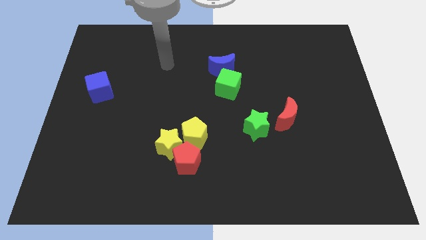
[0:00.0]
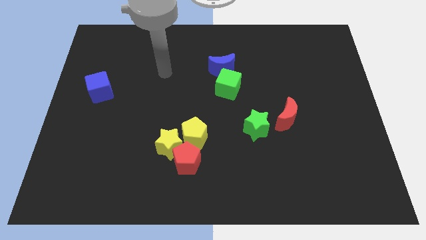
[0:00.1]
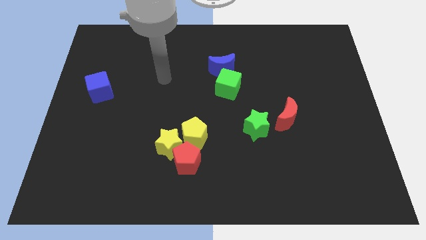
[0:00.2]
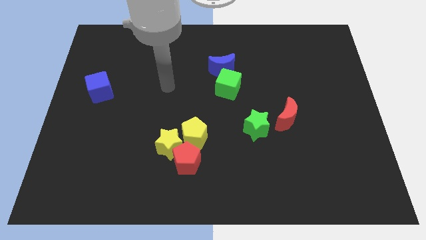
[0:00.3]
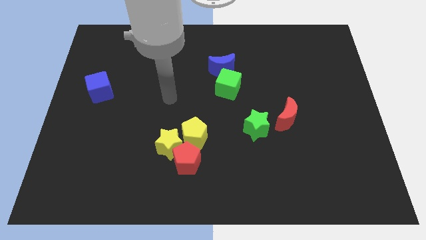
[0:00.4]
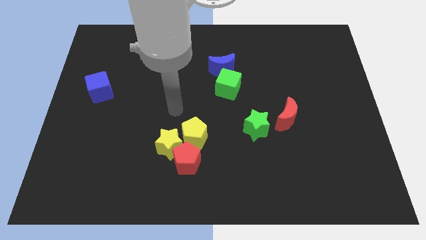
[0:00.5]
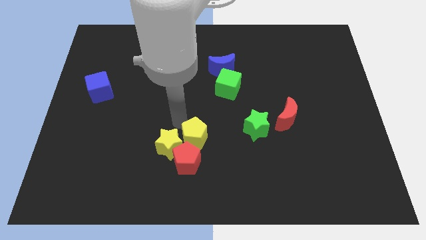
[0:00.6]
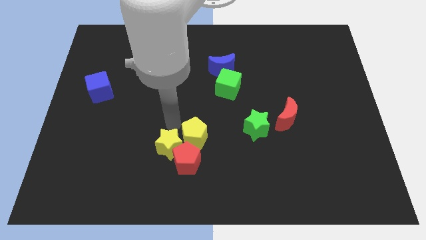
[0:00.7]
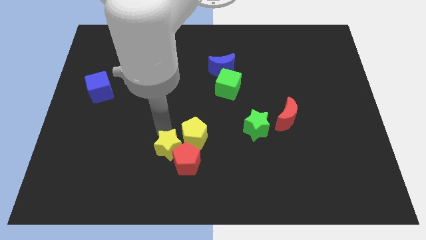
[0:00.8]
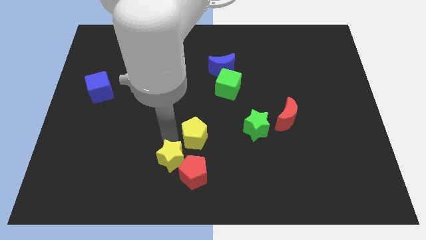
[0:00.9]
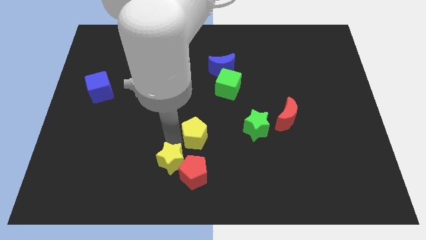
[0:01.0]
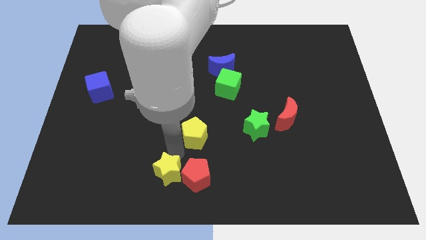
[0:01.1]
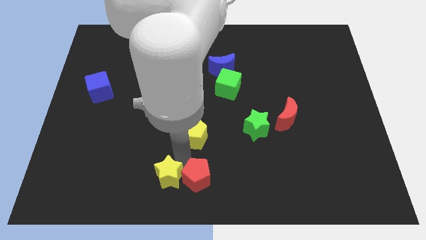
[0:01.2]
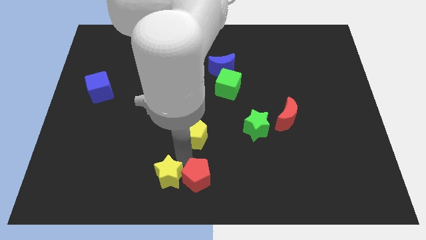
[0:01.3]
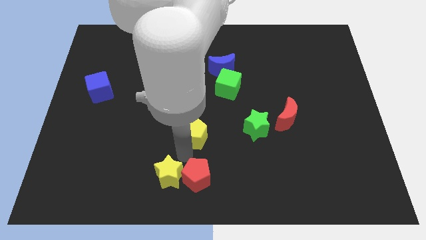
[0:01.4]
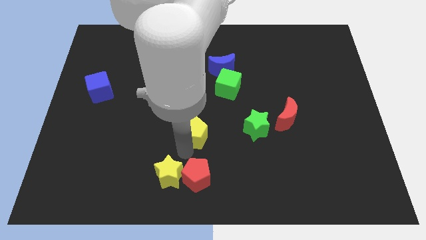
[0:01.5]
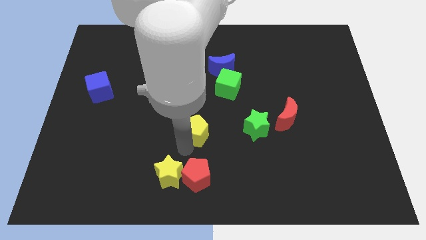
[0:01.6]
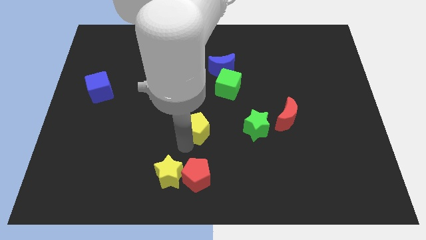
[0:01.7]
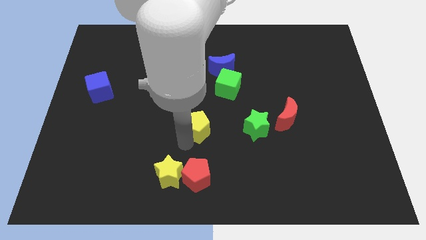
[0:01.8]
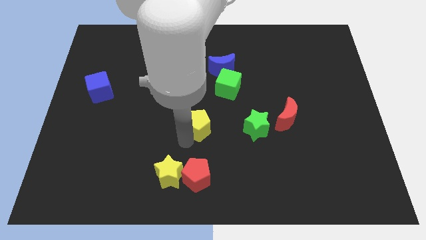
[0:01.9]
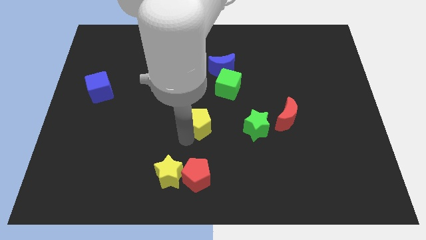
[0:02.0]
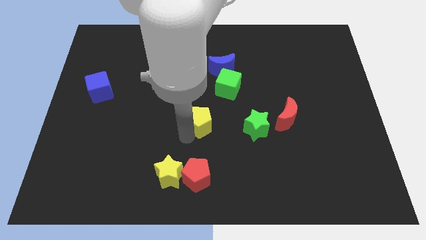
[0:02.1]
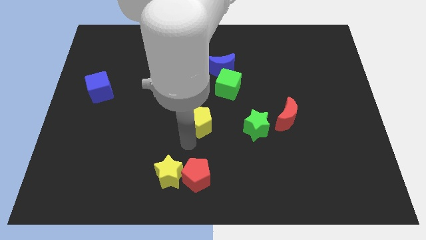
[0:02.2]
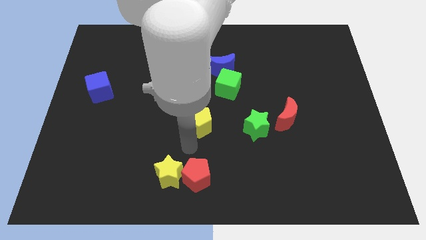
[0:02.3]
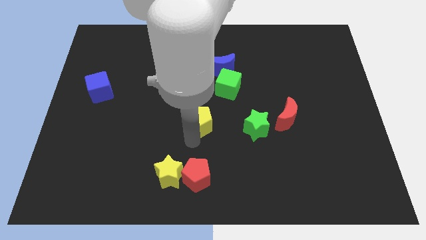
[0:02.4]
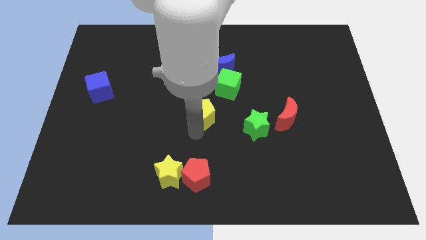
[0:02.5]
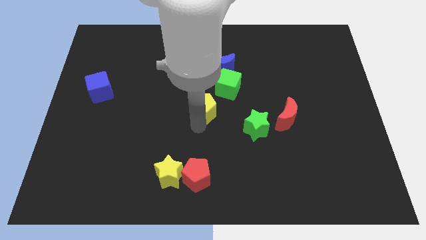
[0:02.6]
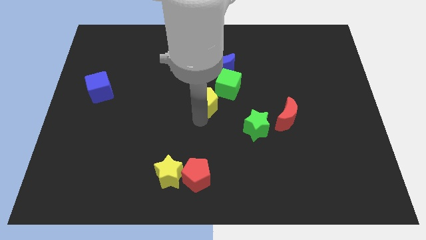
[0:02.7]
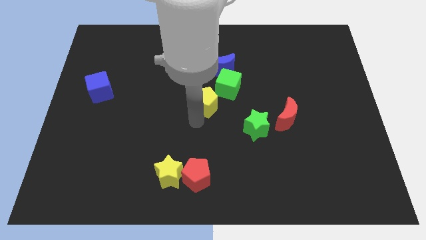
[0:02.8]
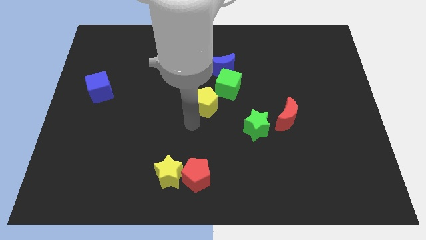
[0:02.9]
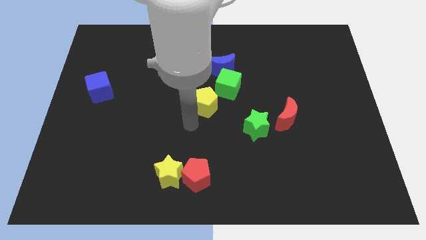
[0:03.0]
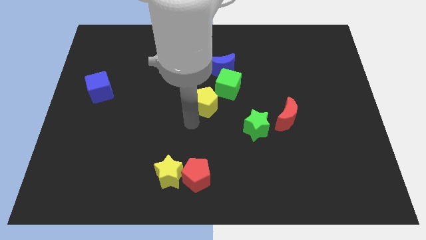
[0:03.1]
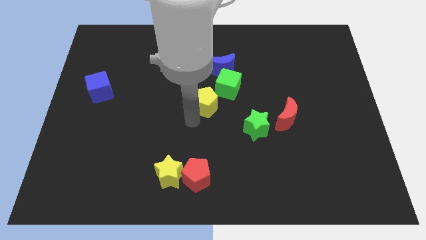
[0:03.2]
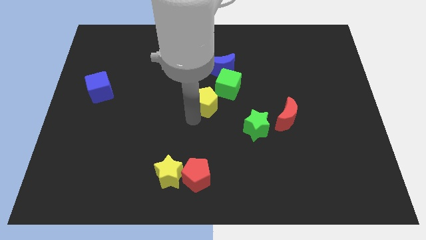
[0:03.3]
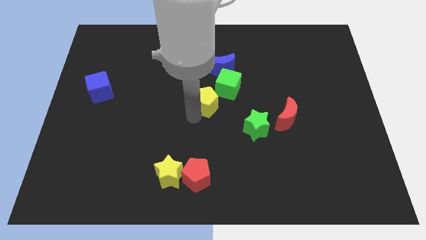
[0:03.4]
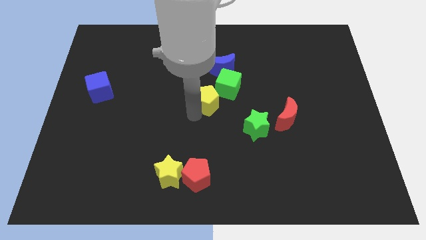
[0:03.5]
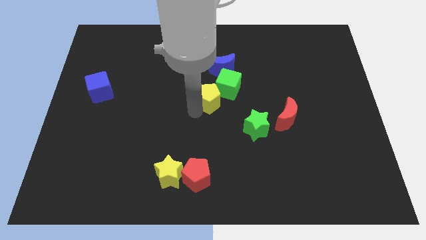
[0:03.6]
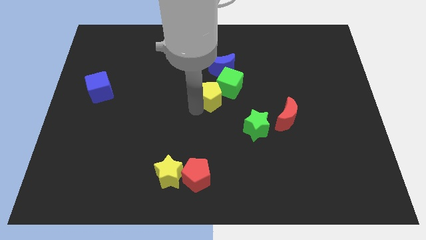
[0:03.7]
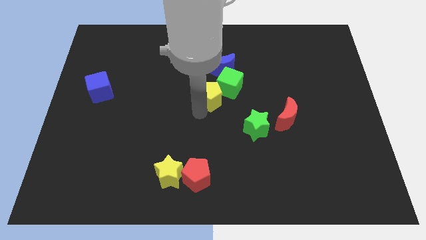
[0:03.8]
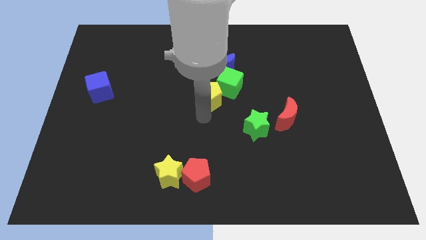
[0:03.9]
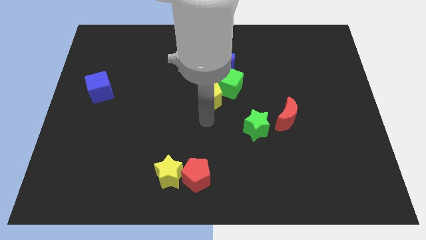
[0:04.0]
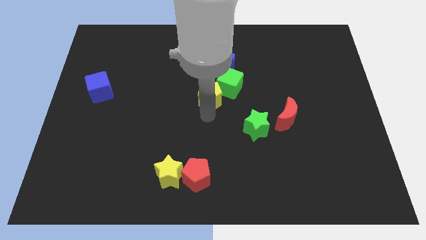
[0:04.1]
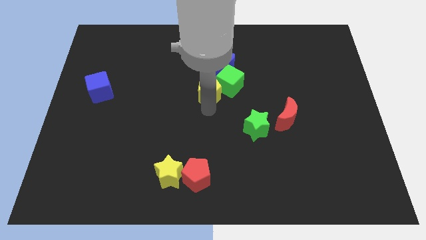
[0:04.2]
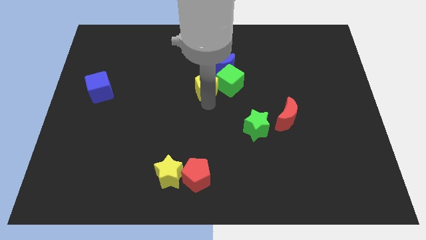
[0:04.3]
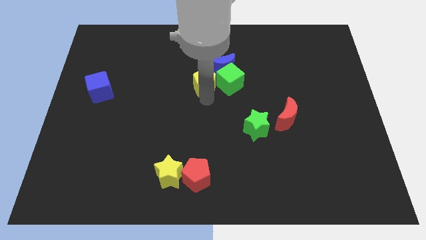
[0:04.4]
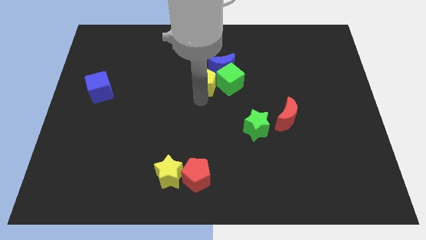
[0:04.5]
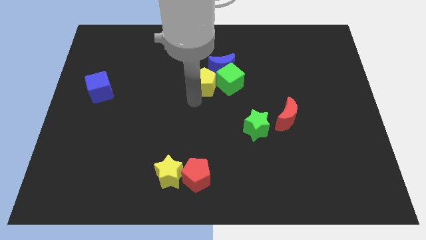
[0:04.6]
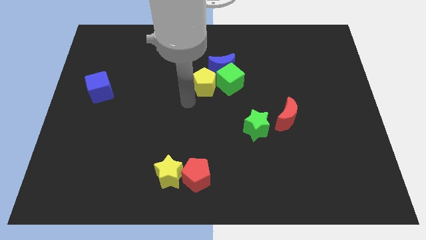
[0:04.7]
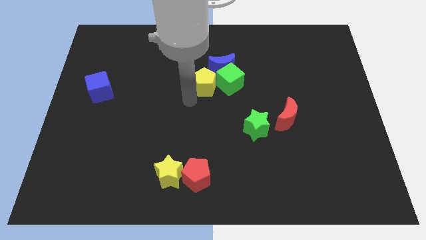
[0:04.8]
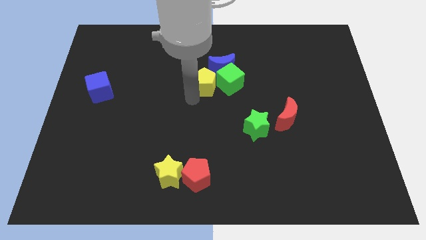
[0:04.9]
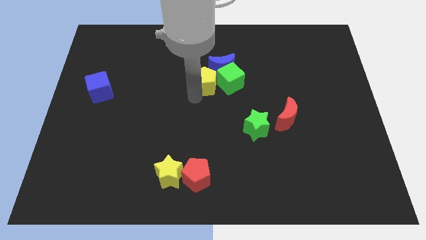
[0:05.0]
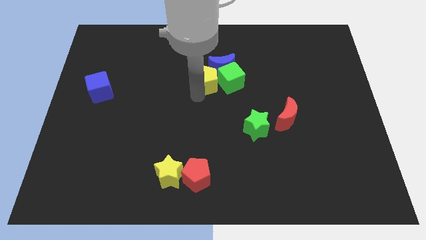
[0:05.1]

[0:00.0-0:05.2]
push the yellow pentagon next to the blue moon

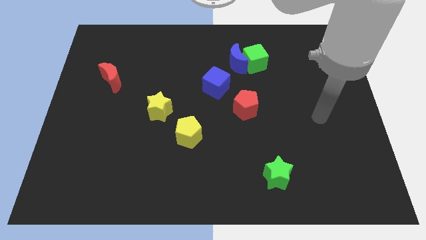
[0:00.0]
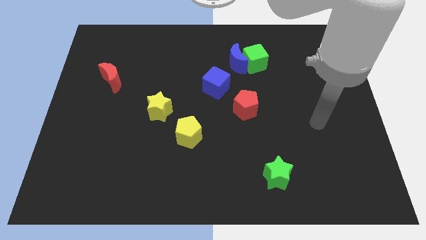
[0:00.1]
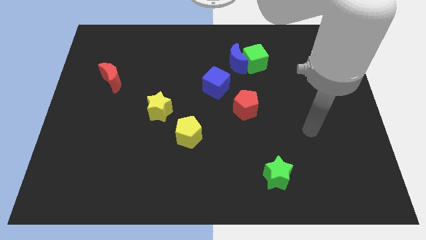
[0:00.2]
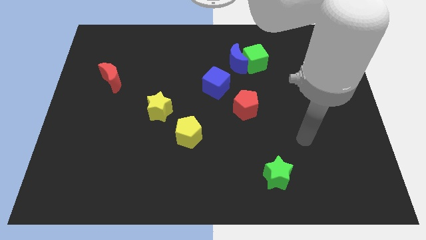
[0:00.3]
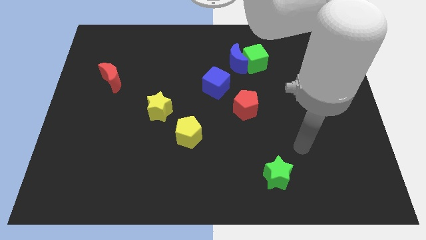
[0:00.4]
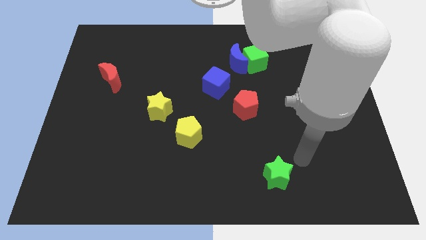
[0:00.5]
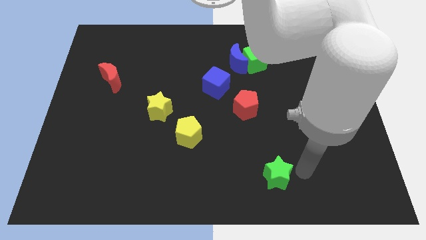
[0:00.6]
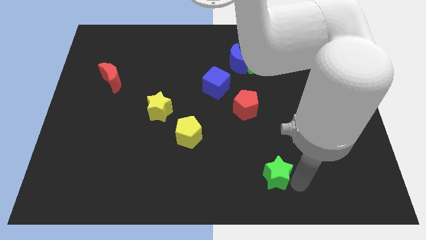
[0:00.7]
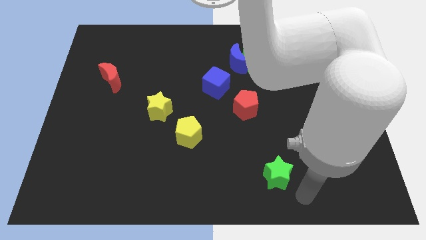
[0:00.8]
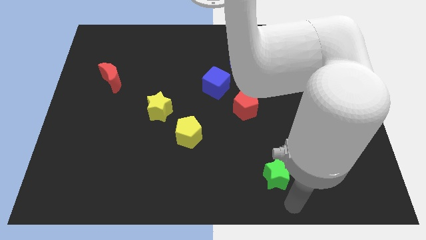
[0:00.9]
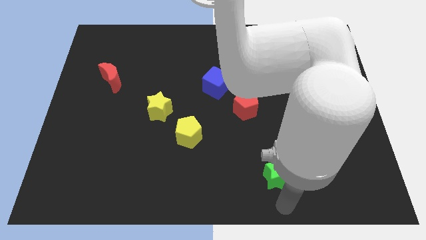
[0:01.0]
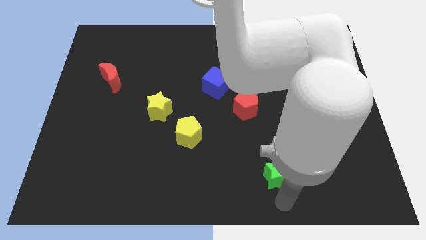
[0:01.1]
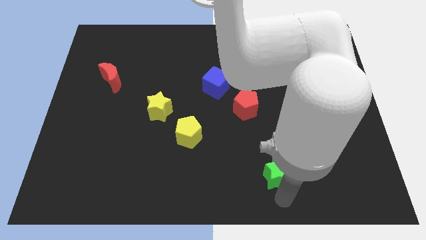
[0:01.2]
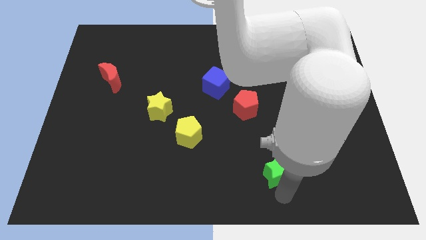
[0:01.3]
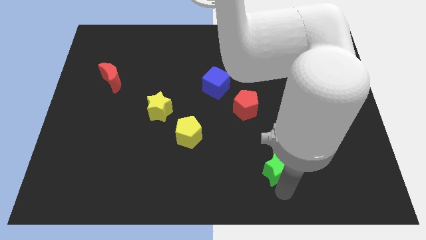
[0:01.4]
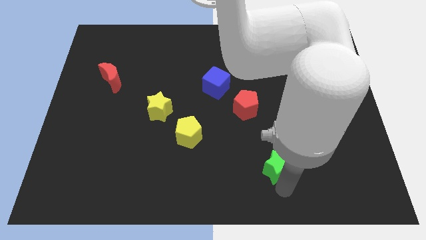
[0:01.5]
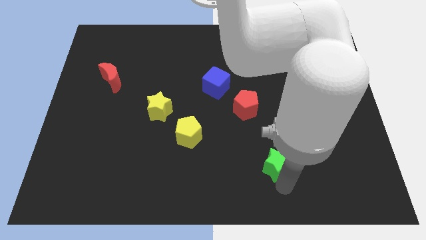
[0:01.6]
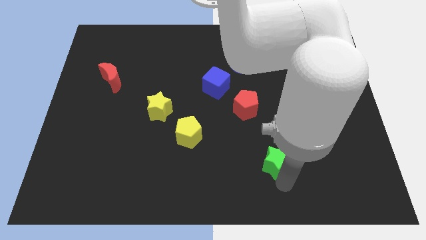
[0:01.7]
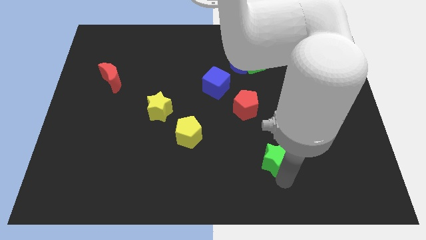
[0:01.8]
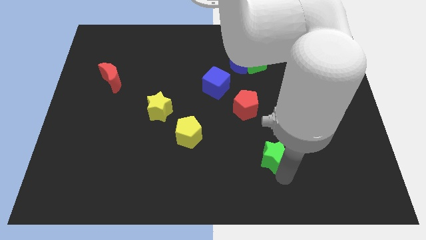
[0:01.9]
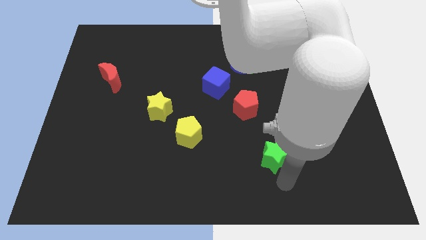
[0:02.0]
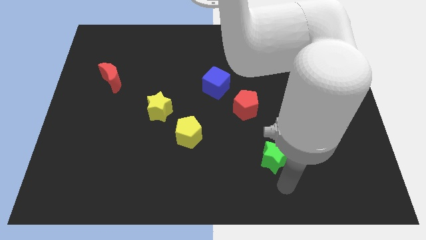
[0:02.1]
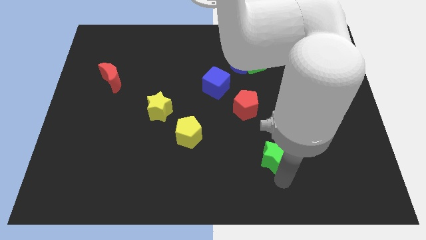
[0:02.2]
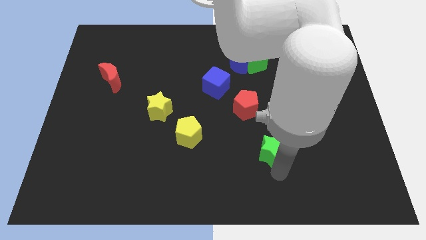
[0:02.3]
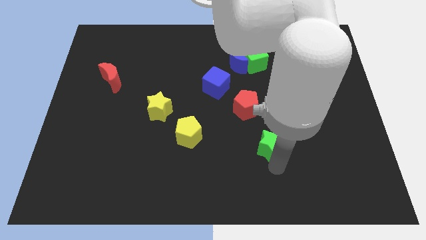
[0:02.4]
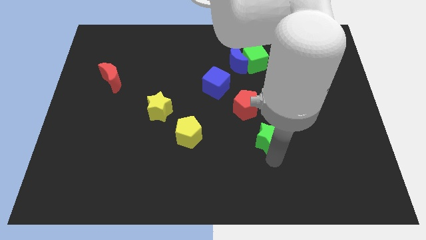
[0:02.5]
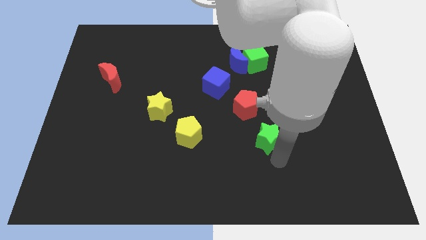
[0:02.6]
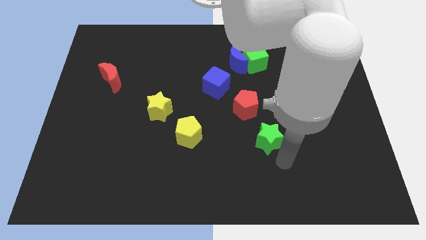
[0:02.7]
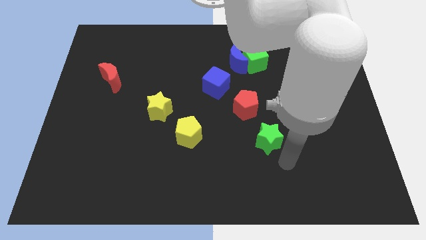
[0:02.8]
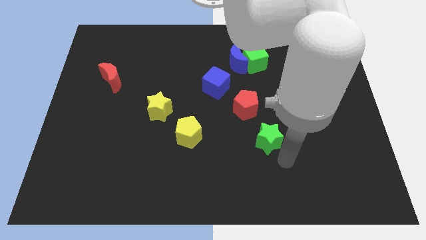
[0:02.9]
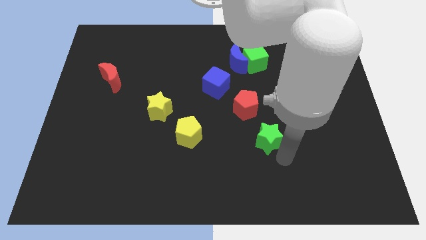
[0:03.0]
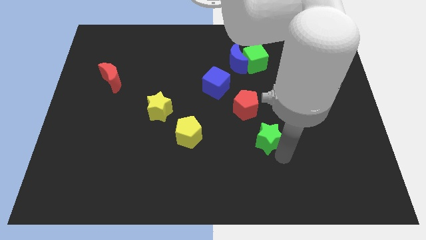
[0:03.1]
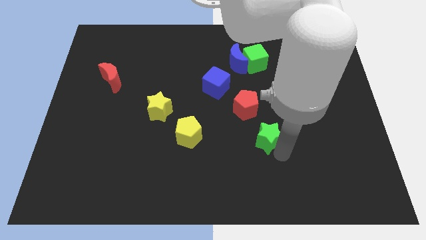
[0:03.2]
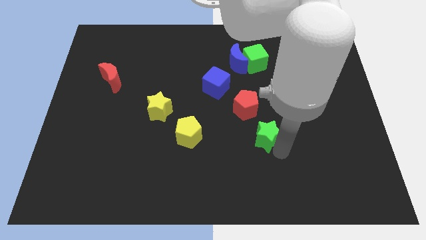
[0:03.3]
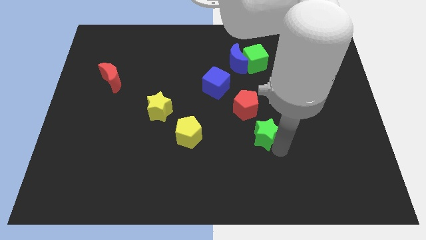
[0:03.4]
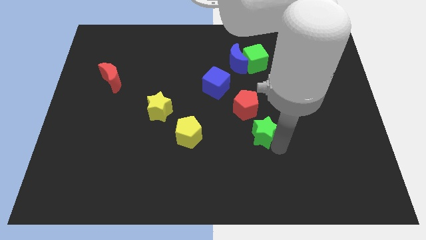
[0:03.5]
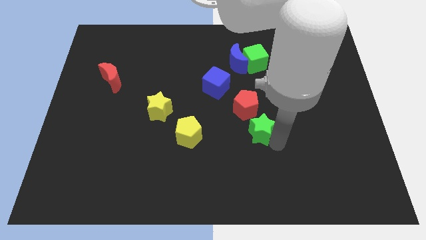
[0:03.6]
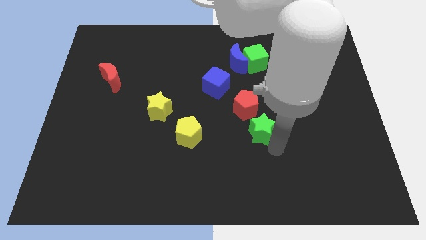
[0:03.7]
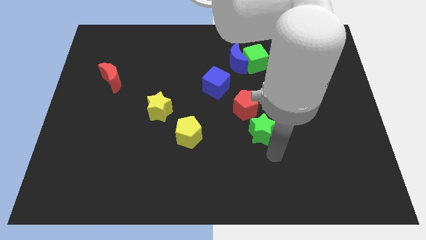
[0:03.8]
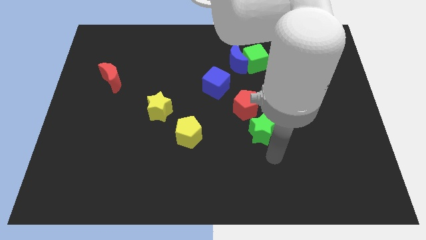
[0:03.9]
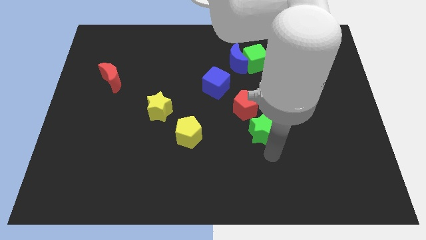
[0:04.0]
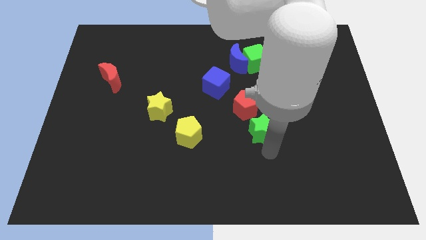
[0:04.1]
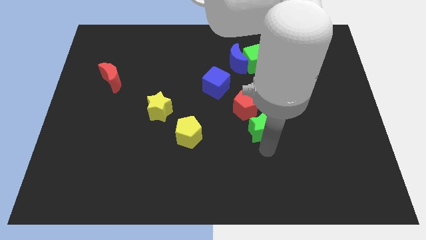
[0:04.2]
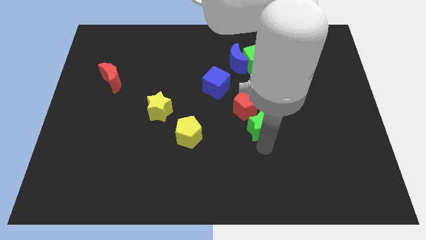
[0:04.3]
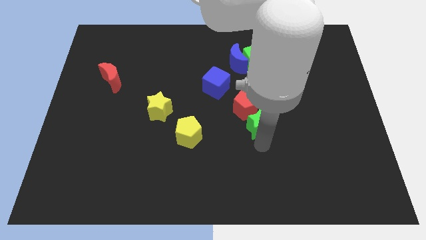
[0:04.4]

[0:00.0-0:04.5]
slide the green star close to the red pentagon
